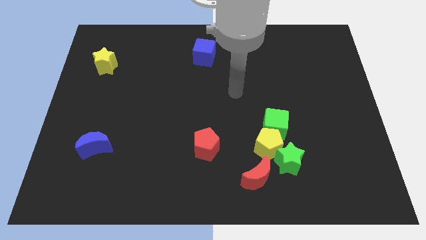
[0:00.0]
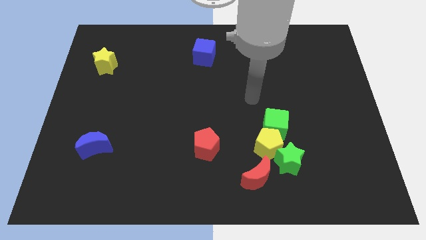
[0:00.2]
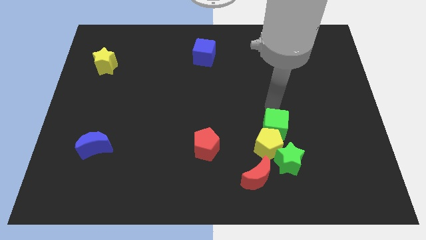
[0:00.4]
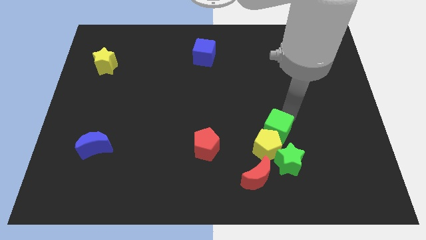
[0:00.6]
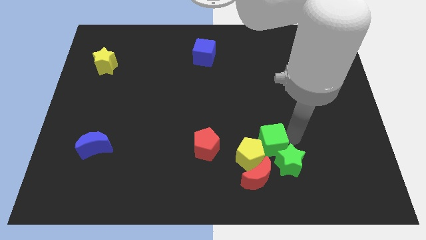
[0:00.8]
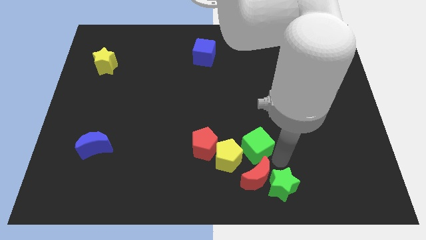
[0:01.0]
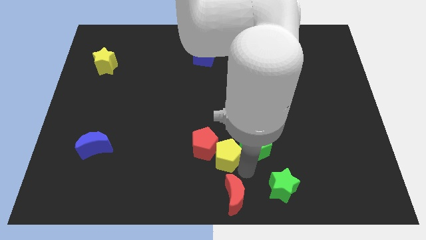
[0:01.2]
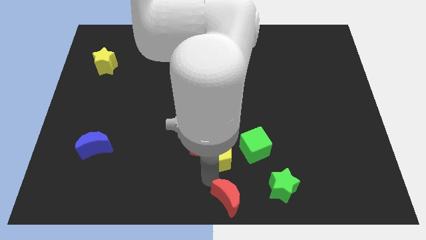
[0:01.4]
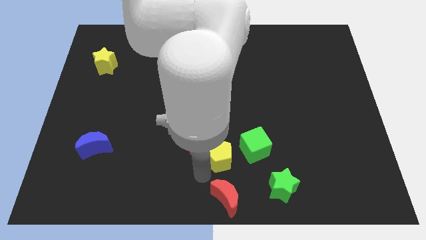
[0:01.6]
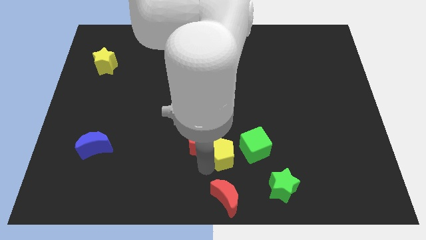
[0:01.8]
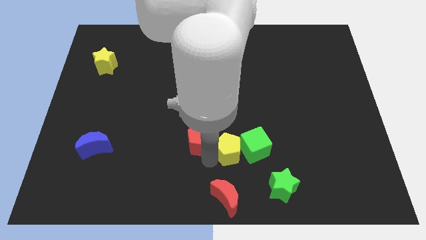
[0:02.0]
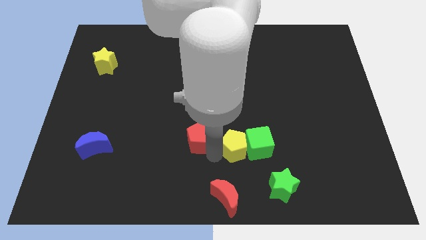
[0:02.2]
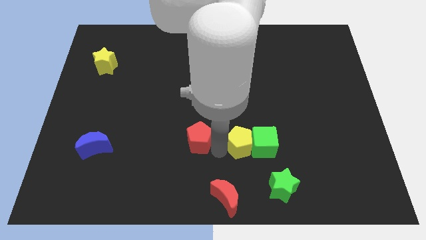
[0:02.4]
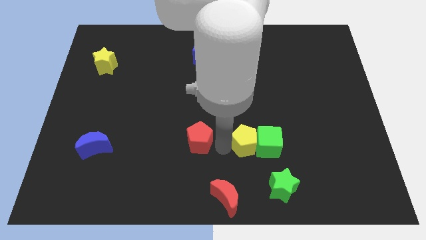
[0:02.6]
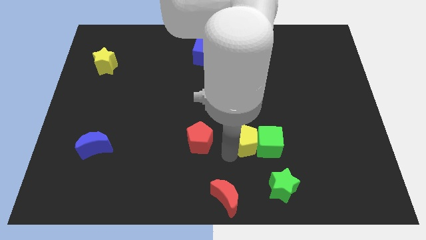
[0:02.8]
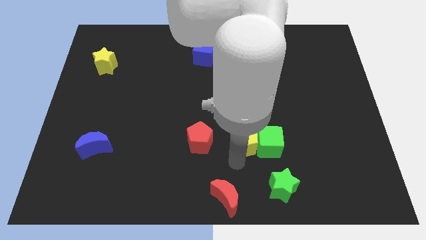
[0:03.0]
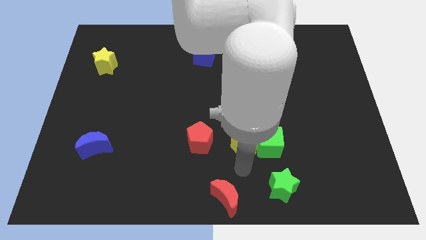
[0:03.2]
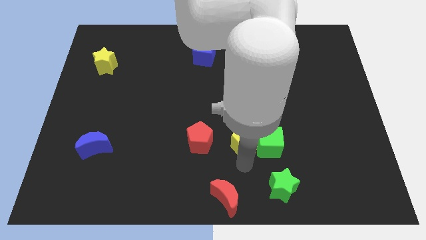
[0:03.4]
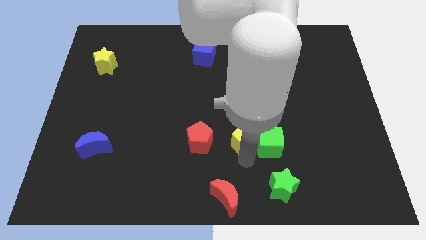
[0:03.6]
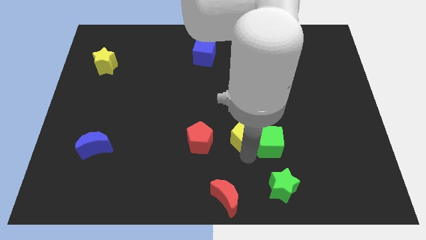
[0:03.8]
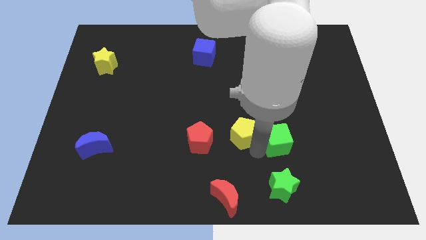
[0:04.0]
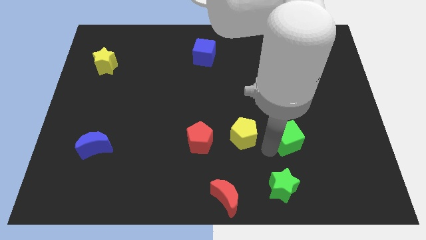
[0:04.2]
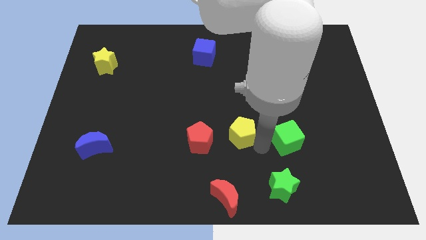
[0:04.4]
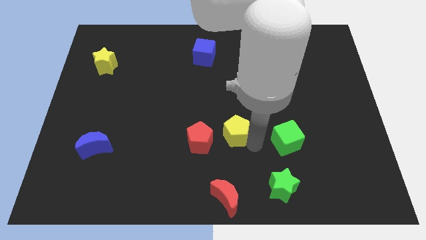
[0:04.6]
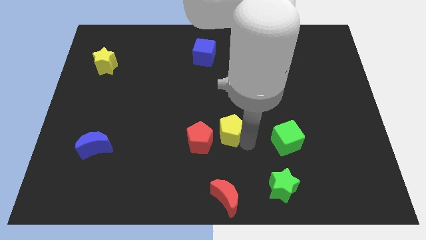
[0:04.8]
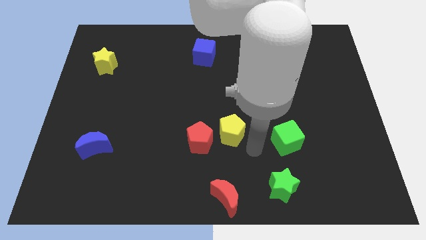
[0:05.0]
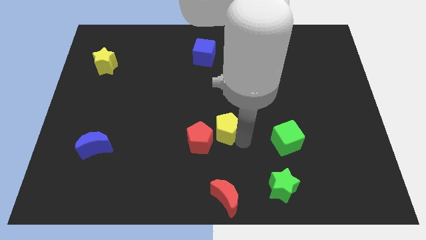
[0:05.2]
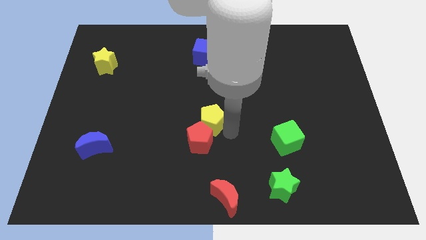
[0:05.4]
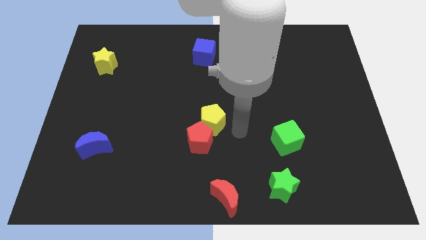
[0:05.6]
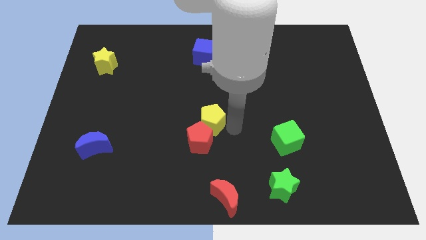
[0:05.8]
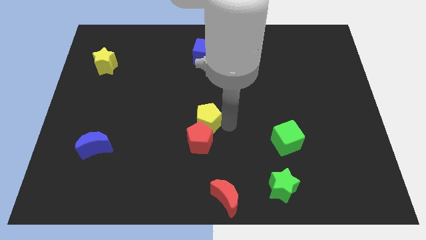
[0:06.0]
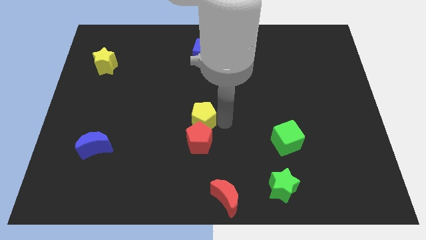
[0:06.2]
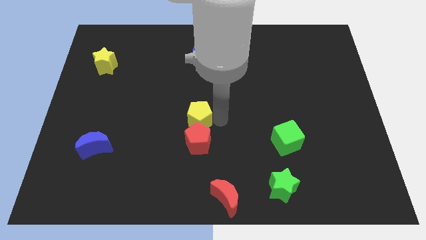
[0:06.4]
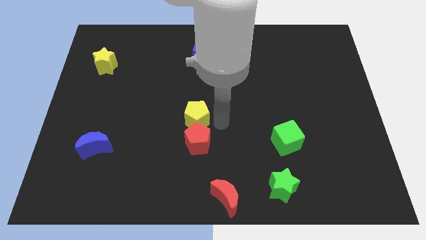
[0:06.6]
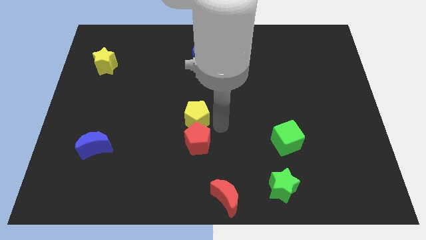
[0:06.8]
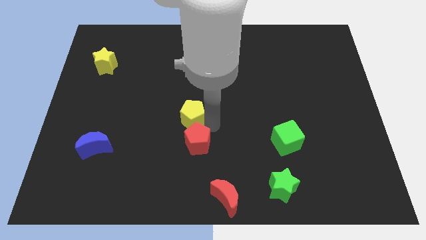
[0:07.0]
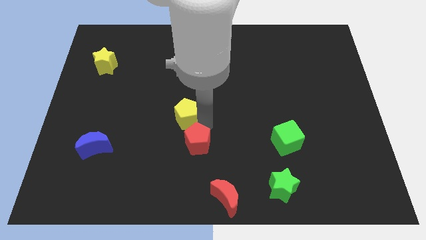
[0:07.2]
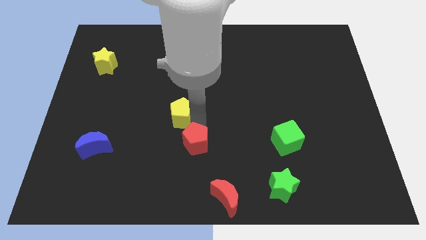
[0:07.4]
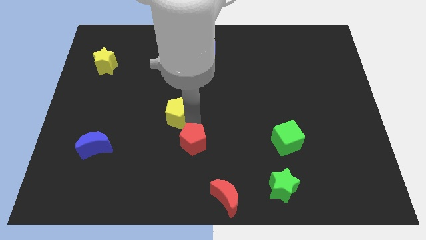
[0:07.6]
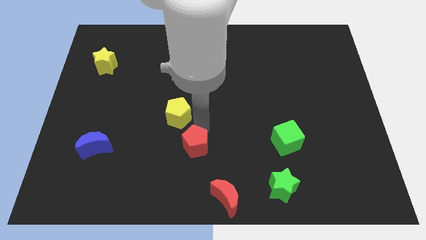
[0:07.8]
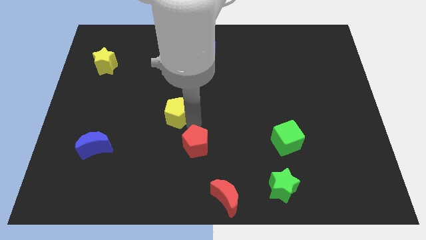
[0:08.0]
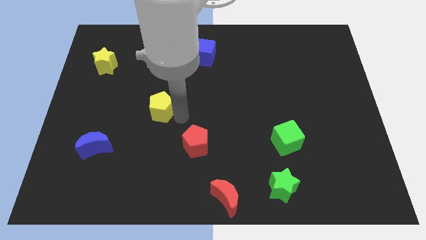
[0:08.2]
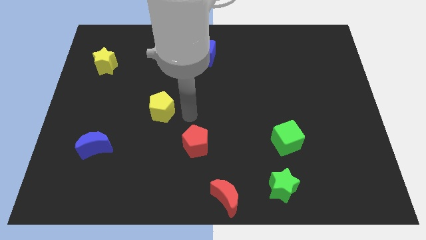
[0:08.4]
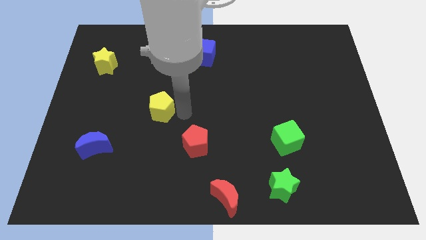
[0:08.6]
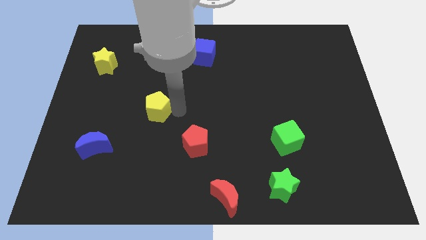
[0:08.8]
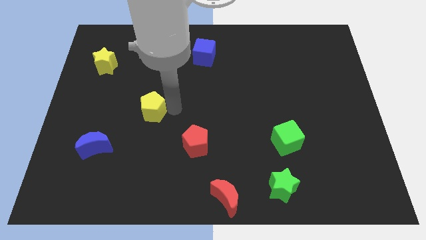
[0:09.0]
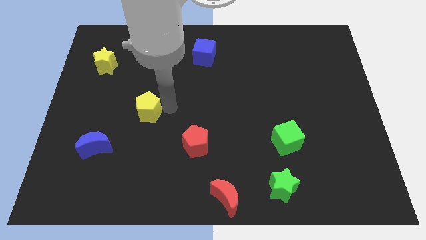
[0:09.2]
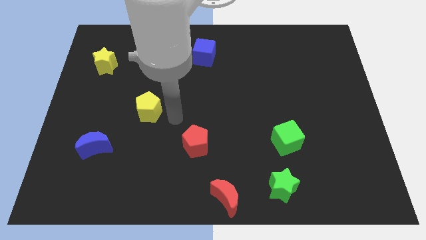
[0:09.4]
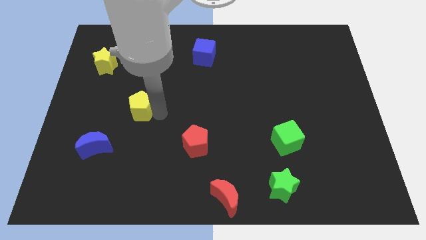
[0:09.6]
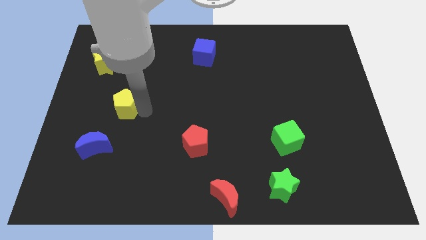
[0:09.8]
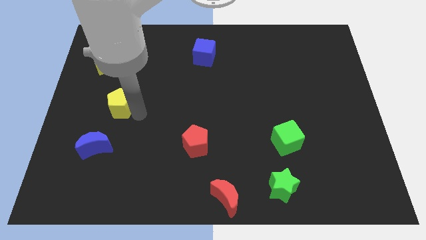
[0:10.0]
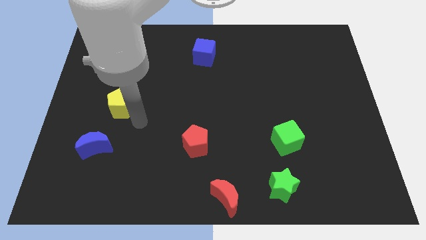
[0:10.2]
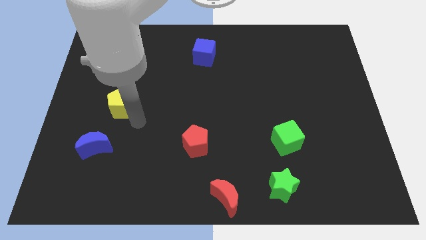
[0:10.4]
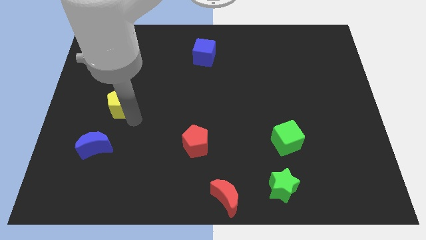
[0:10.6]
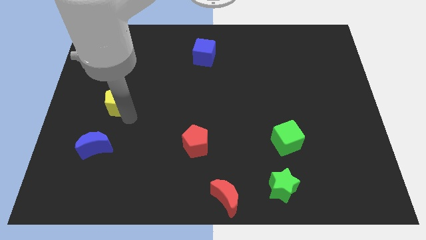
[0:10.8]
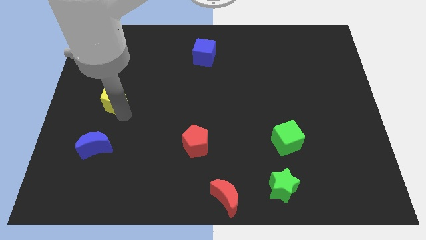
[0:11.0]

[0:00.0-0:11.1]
put the yellow pentagon to the bottom of the yellow star
